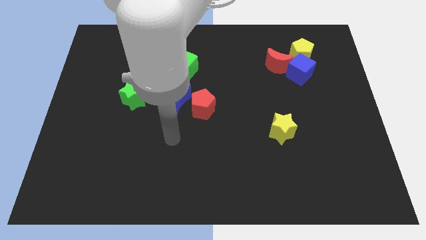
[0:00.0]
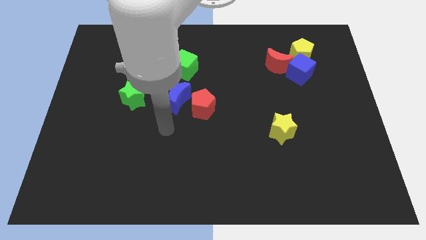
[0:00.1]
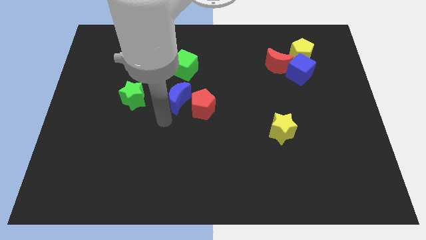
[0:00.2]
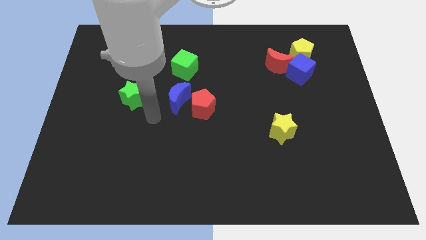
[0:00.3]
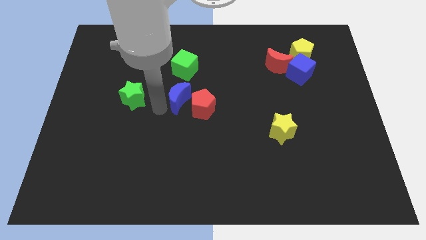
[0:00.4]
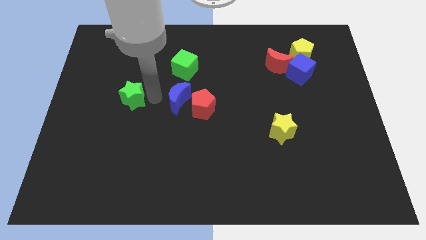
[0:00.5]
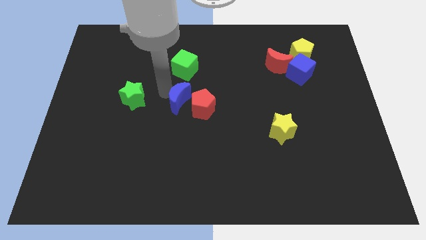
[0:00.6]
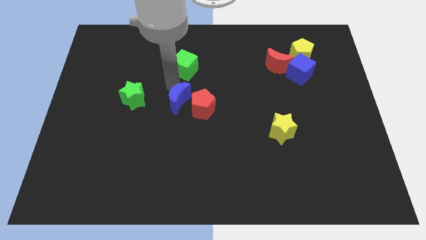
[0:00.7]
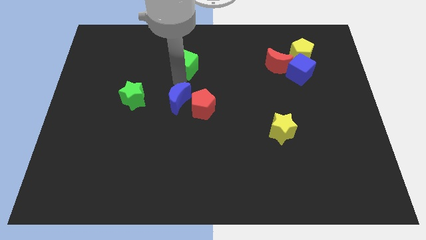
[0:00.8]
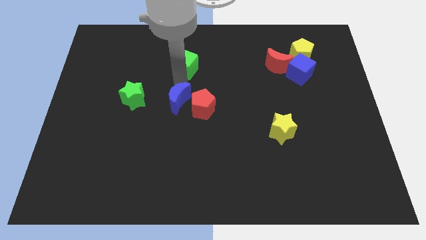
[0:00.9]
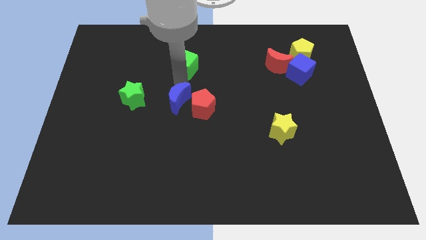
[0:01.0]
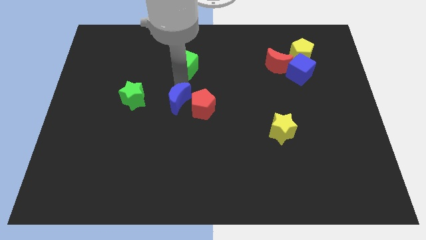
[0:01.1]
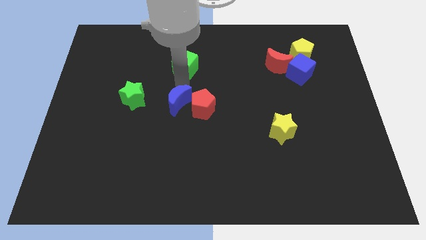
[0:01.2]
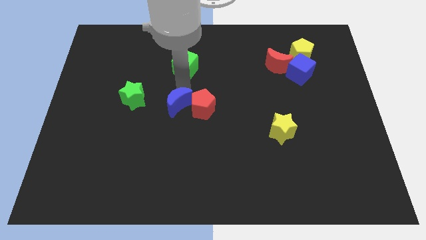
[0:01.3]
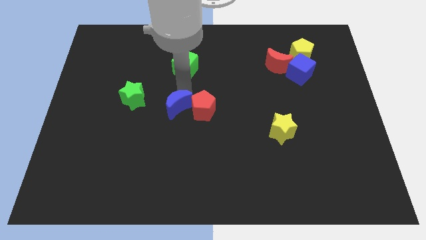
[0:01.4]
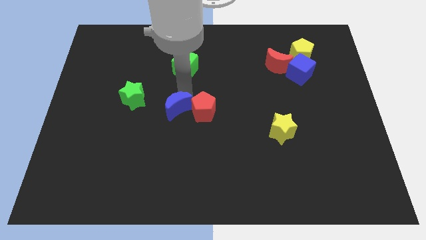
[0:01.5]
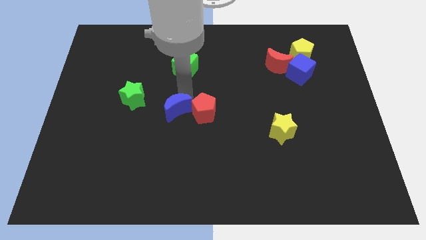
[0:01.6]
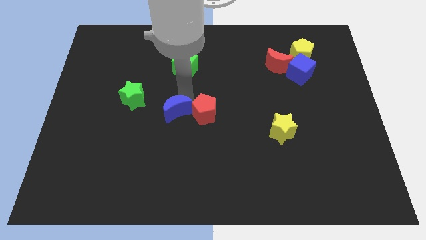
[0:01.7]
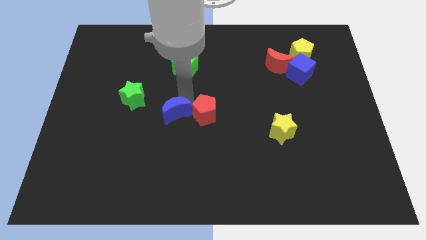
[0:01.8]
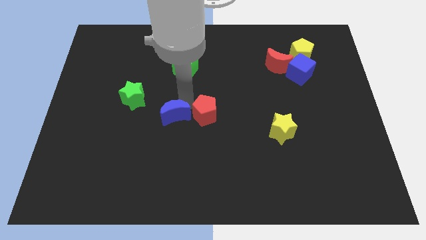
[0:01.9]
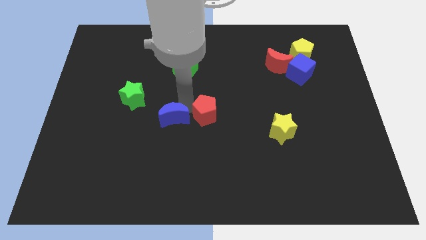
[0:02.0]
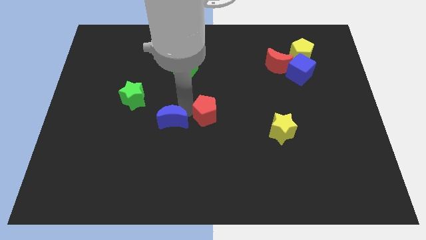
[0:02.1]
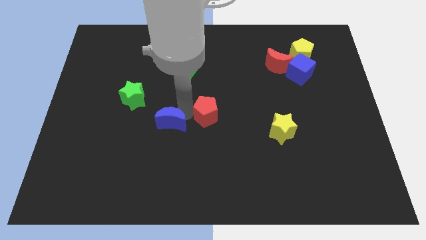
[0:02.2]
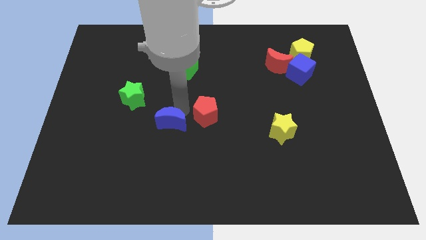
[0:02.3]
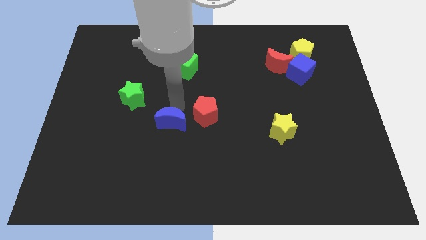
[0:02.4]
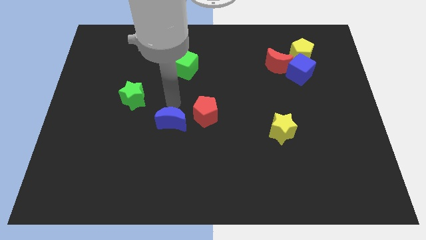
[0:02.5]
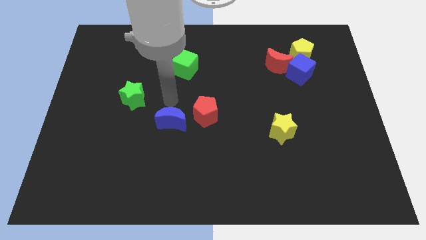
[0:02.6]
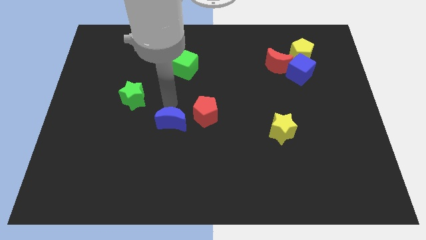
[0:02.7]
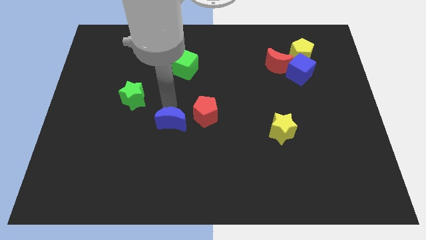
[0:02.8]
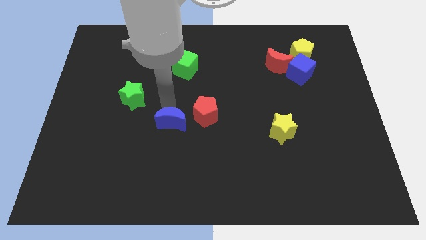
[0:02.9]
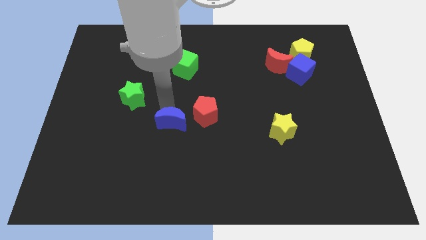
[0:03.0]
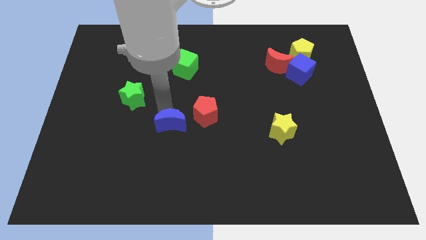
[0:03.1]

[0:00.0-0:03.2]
slightly slide the blue moon downwards

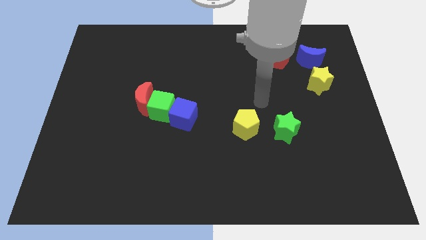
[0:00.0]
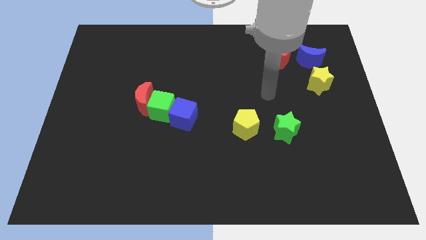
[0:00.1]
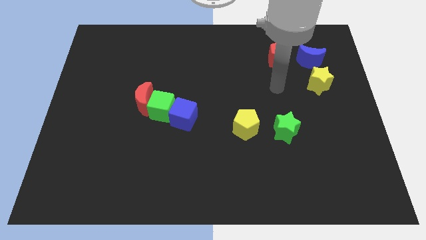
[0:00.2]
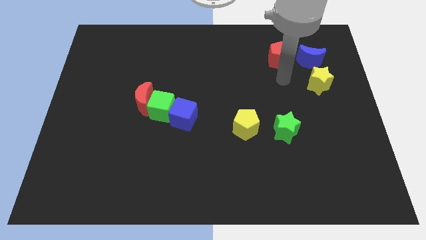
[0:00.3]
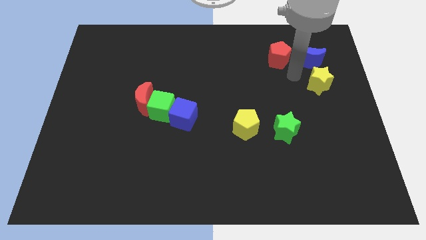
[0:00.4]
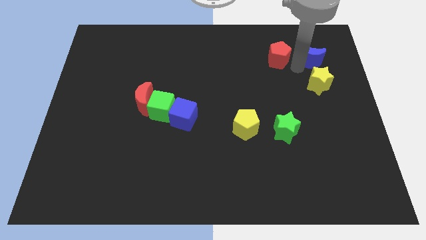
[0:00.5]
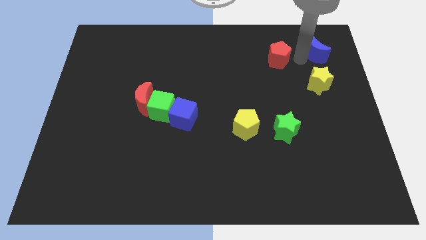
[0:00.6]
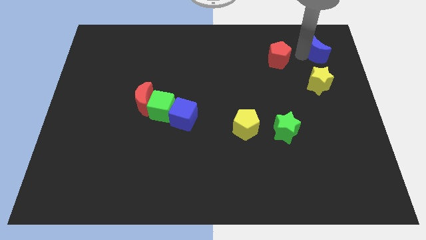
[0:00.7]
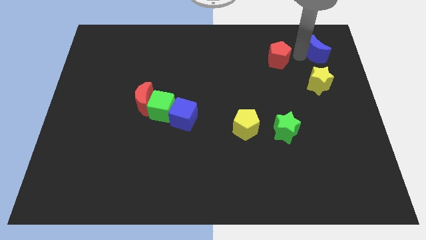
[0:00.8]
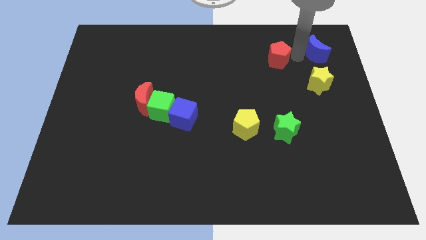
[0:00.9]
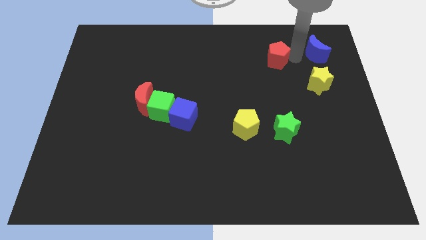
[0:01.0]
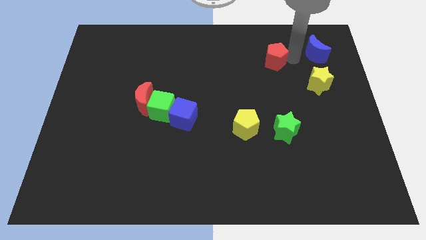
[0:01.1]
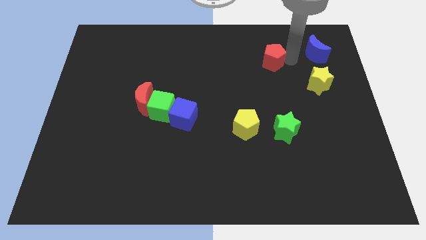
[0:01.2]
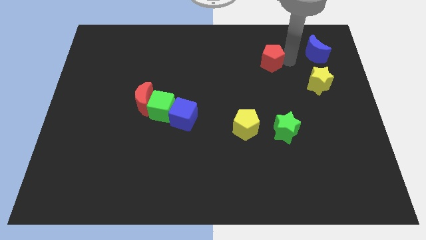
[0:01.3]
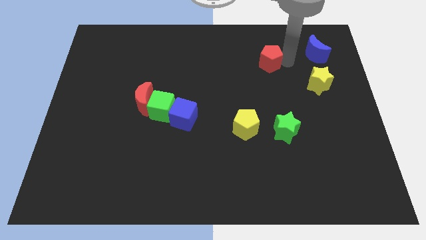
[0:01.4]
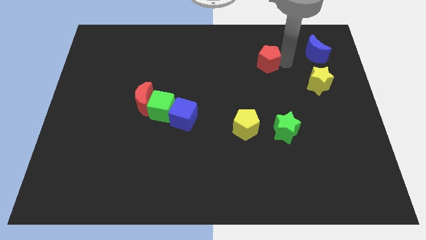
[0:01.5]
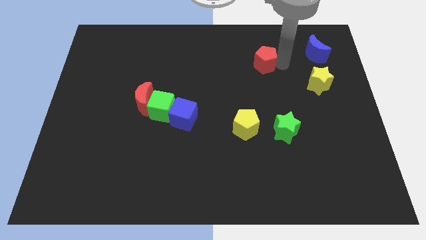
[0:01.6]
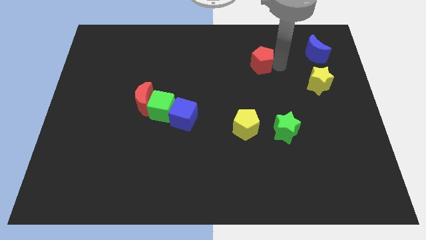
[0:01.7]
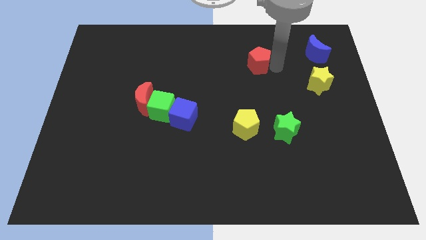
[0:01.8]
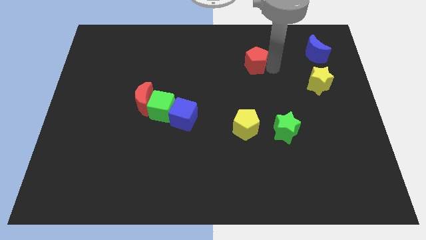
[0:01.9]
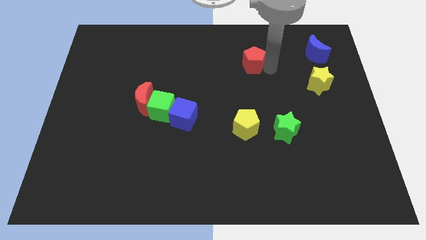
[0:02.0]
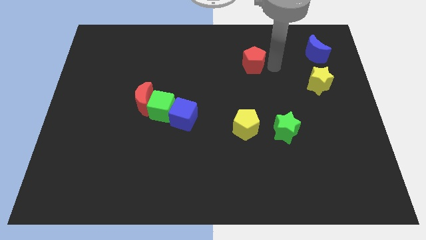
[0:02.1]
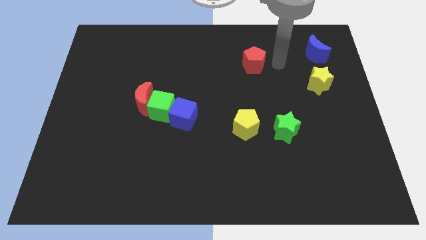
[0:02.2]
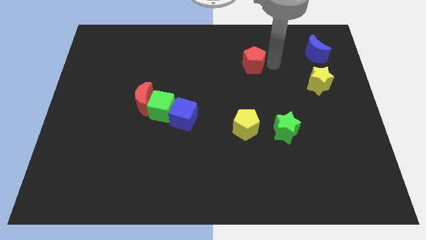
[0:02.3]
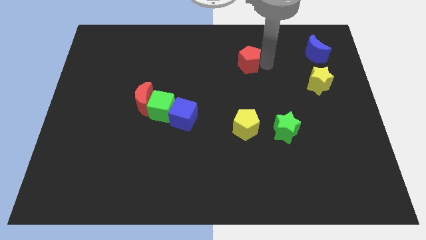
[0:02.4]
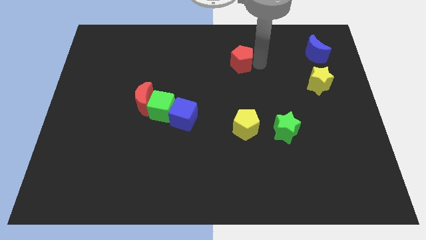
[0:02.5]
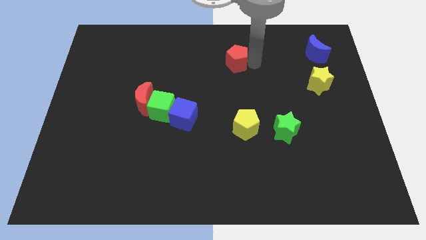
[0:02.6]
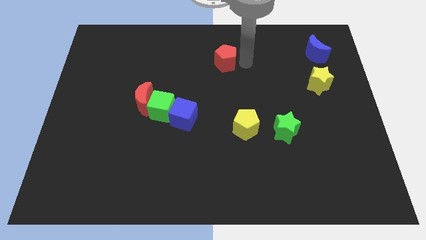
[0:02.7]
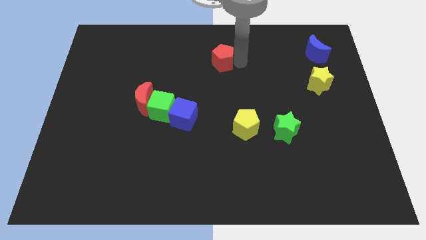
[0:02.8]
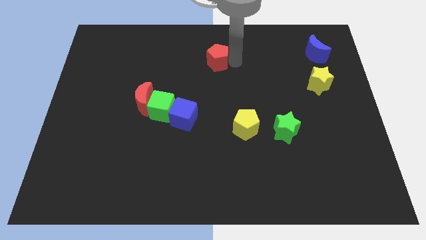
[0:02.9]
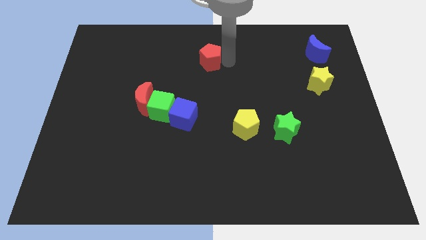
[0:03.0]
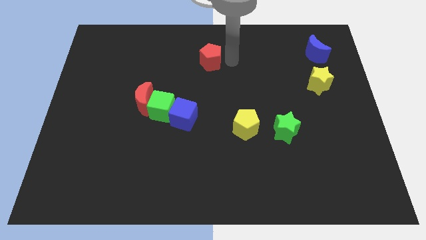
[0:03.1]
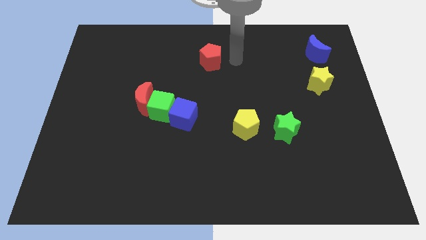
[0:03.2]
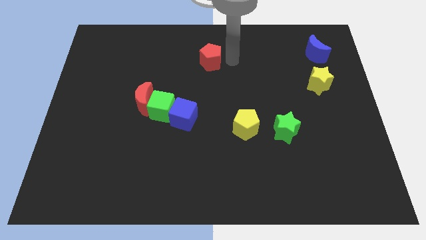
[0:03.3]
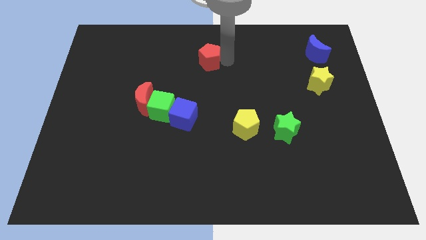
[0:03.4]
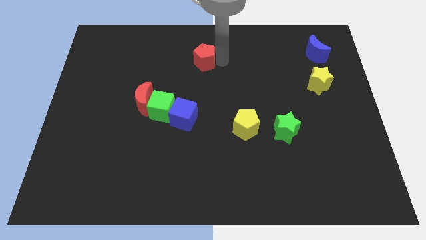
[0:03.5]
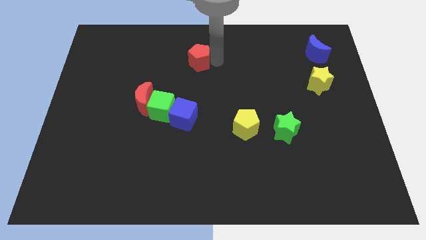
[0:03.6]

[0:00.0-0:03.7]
push the red pentagon left

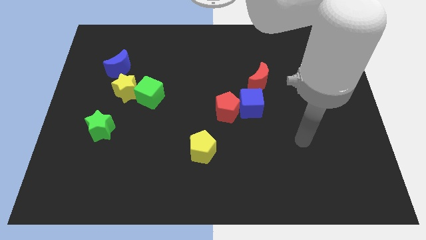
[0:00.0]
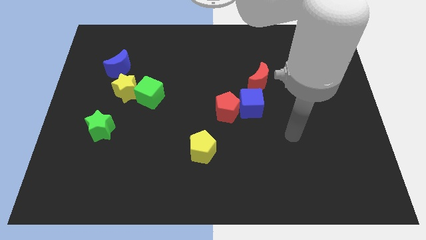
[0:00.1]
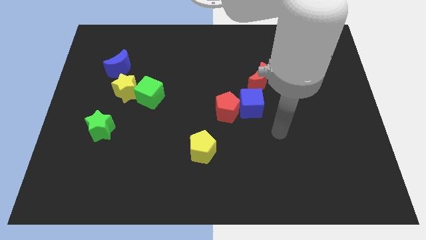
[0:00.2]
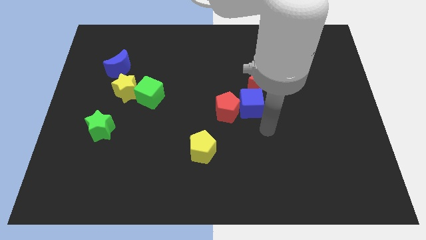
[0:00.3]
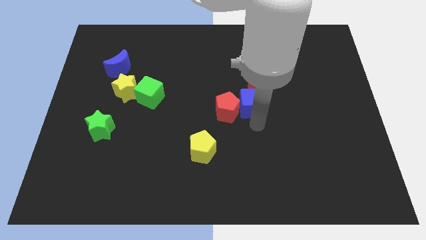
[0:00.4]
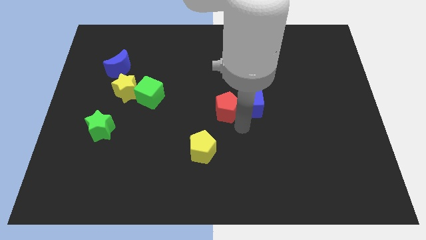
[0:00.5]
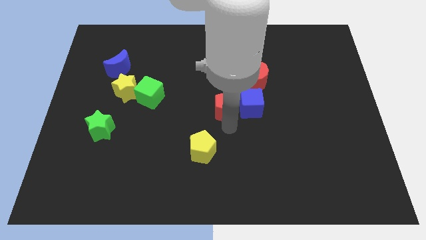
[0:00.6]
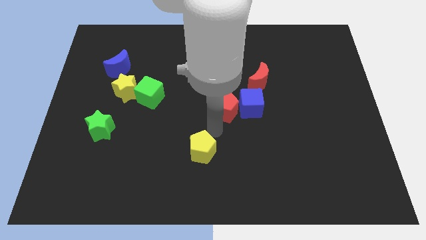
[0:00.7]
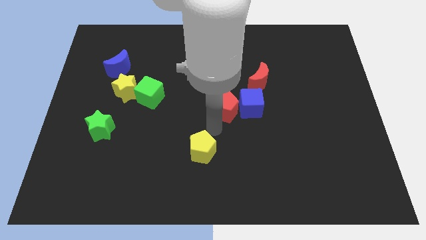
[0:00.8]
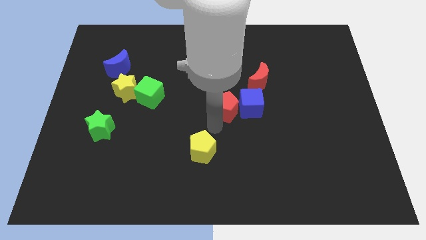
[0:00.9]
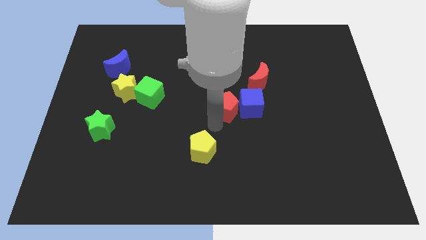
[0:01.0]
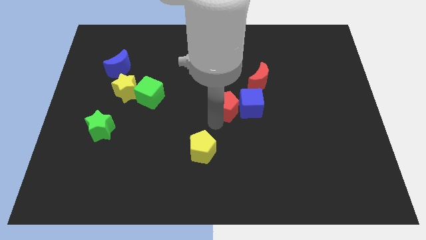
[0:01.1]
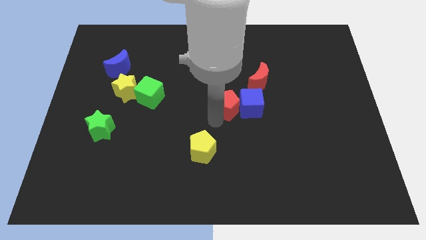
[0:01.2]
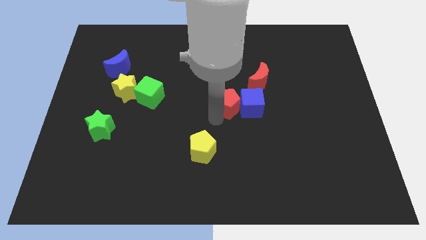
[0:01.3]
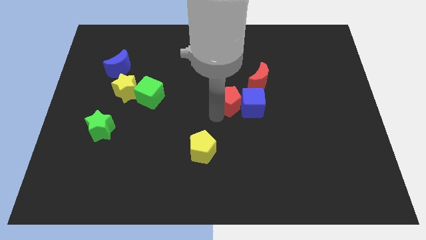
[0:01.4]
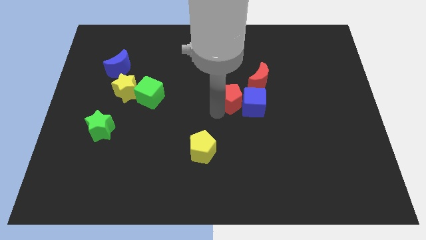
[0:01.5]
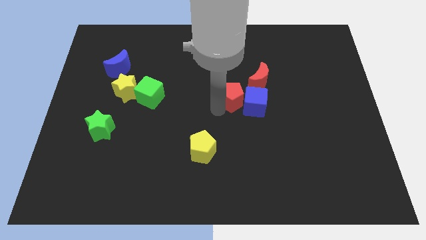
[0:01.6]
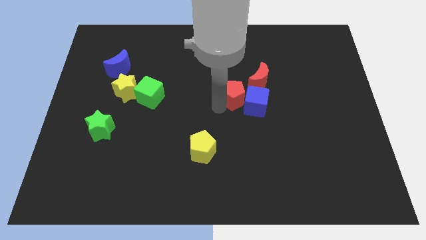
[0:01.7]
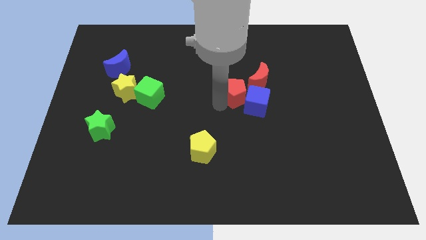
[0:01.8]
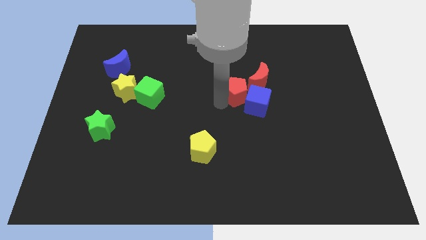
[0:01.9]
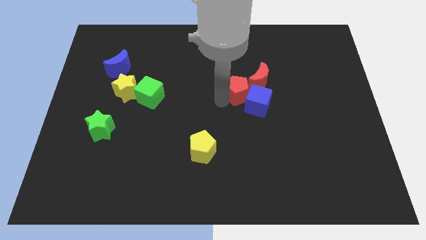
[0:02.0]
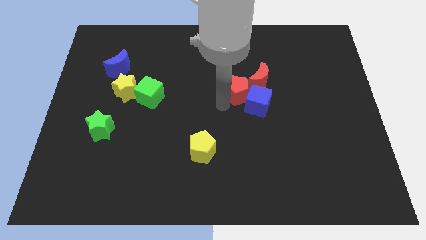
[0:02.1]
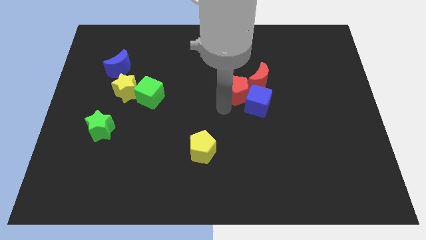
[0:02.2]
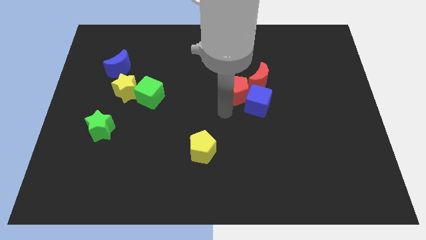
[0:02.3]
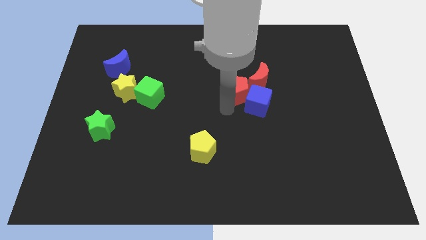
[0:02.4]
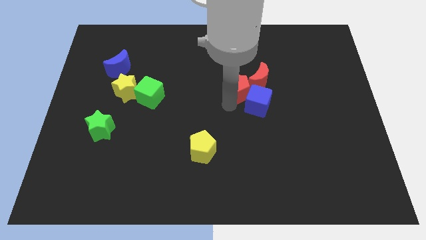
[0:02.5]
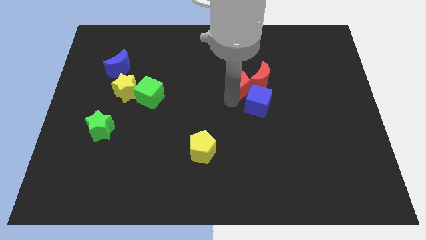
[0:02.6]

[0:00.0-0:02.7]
slide the red pentagon up and right diagonally somewhat
